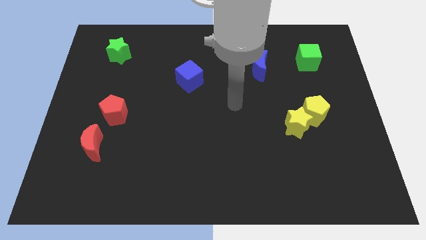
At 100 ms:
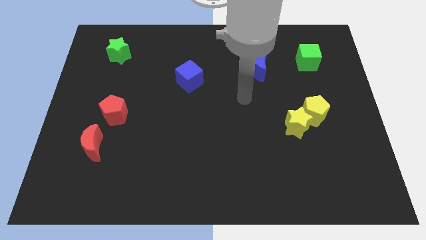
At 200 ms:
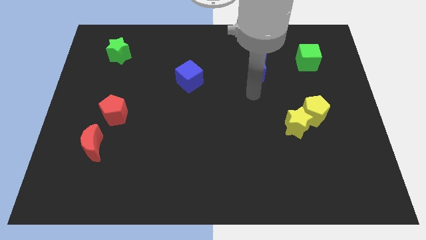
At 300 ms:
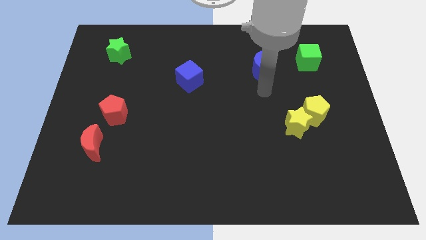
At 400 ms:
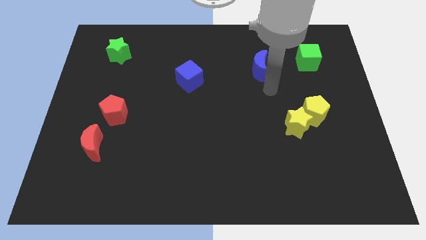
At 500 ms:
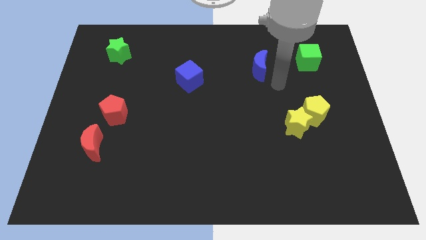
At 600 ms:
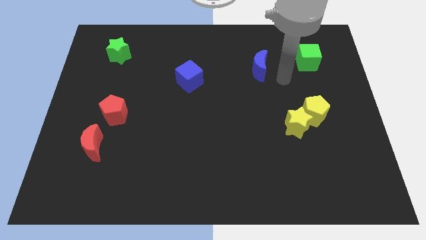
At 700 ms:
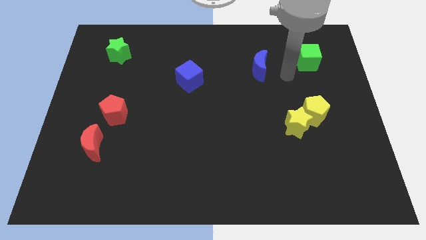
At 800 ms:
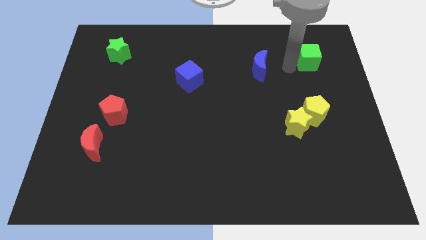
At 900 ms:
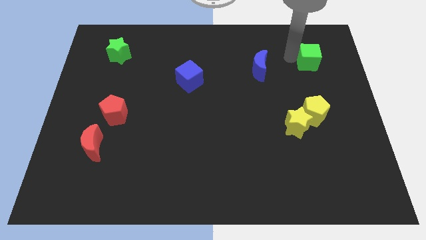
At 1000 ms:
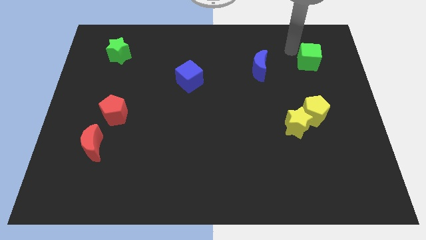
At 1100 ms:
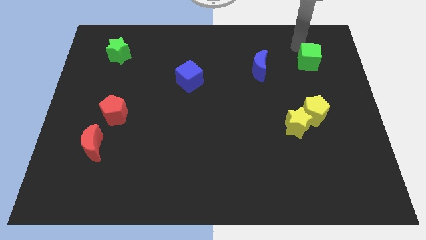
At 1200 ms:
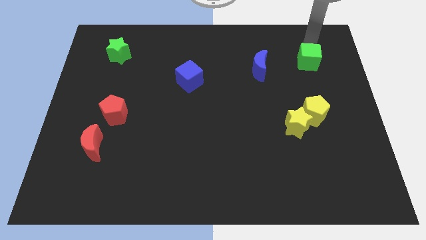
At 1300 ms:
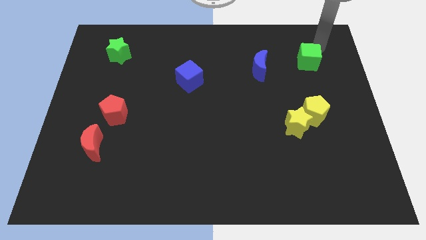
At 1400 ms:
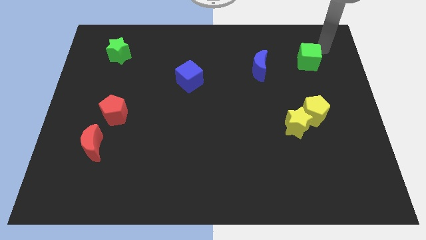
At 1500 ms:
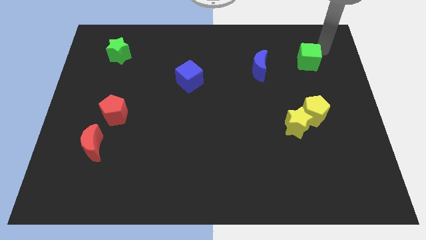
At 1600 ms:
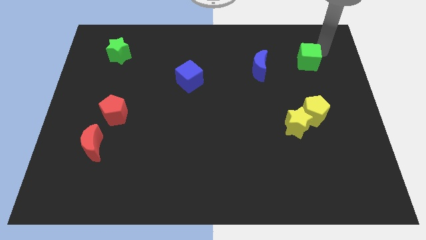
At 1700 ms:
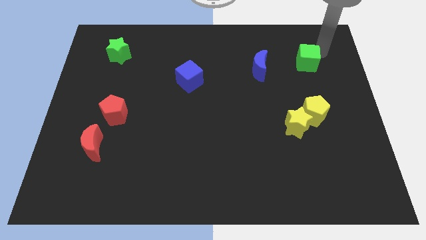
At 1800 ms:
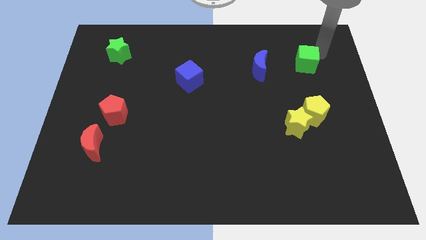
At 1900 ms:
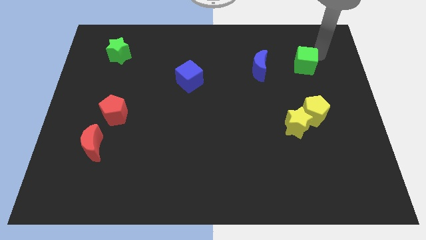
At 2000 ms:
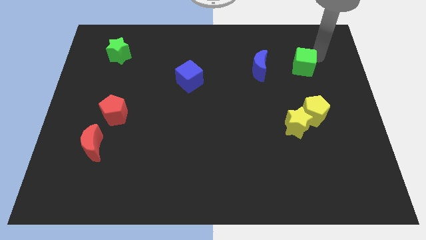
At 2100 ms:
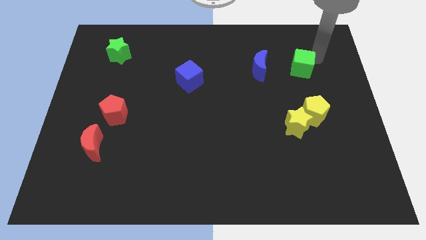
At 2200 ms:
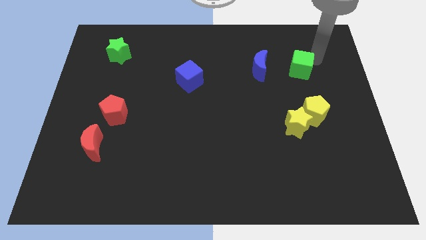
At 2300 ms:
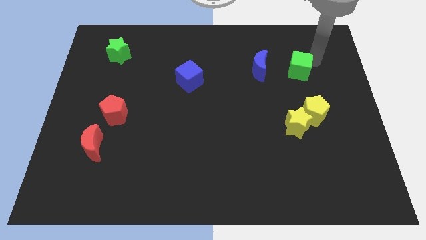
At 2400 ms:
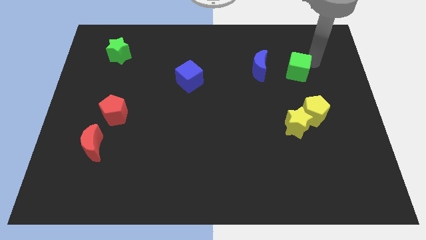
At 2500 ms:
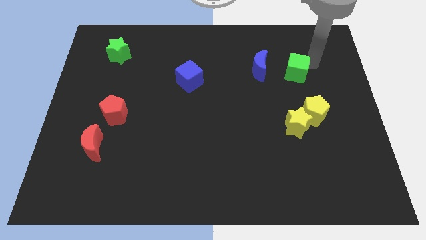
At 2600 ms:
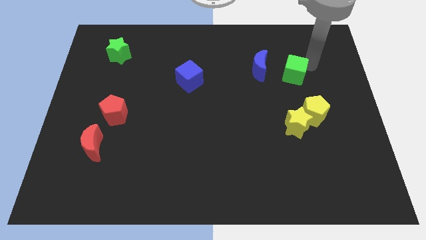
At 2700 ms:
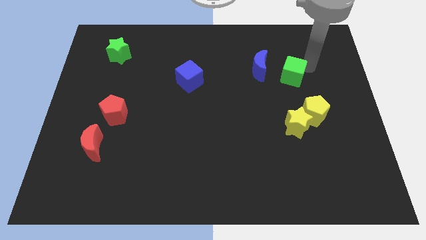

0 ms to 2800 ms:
push the green cube a little bit diagonally down and to the left

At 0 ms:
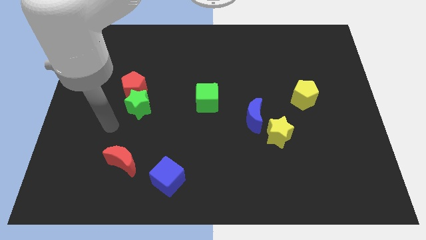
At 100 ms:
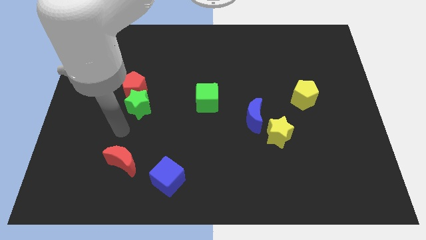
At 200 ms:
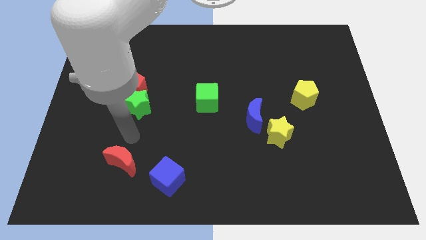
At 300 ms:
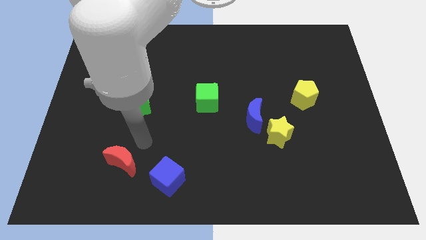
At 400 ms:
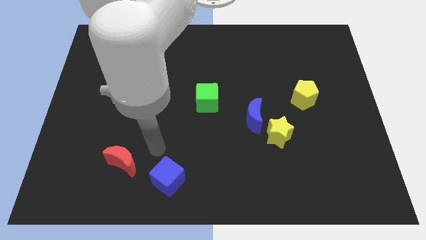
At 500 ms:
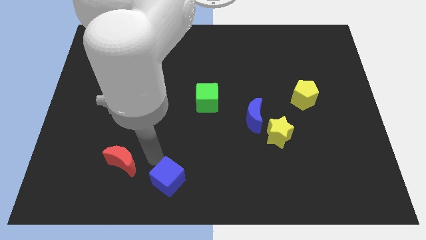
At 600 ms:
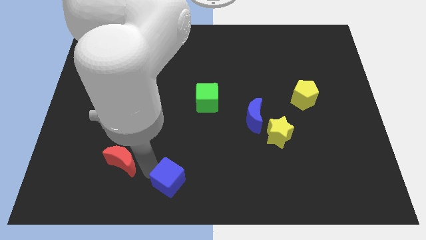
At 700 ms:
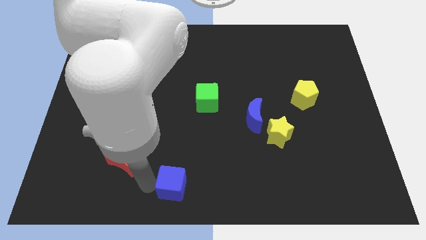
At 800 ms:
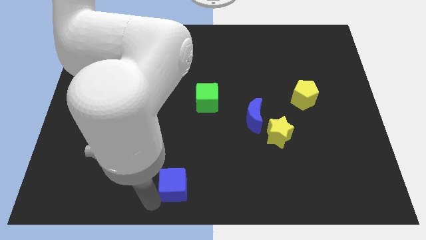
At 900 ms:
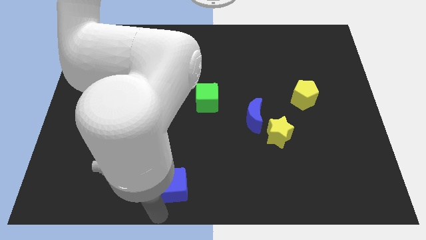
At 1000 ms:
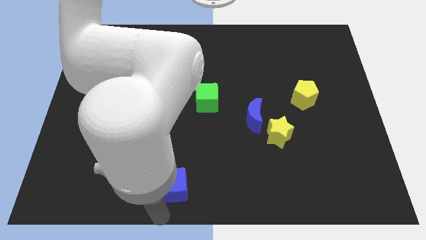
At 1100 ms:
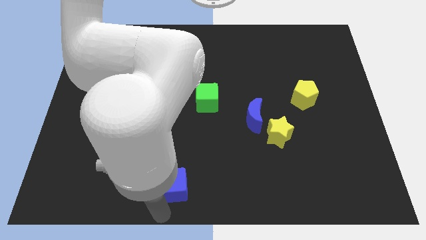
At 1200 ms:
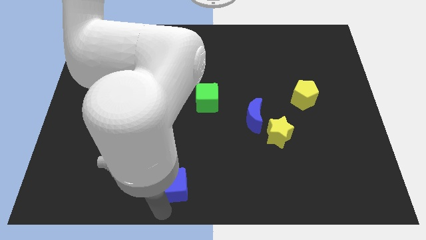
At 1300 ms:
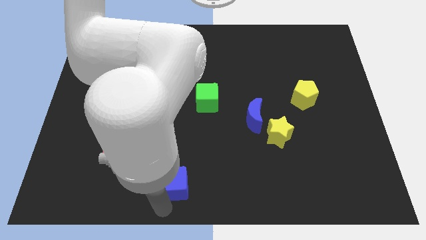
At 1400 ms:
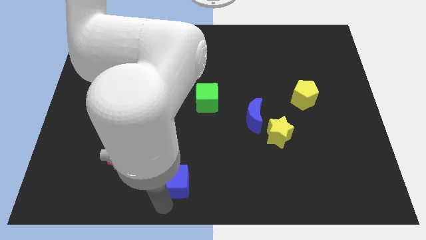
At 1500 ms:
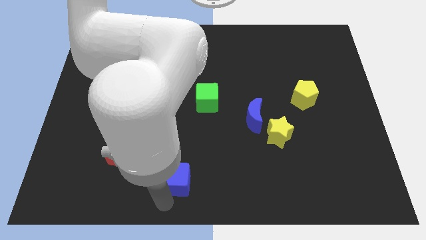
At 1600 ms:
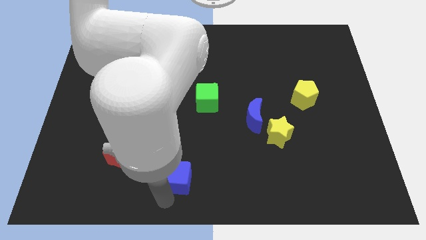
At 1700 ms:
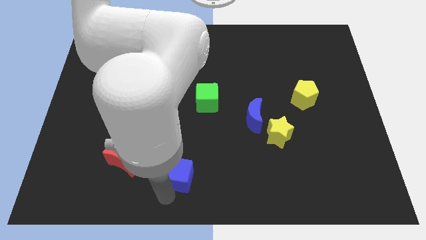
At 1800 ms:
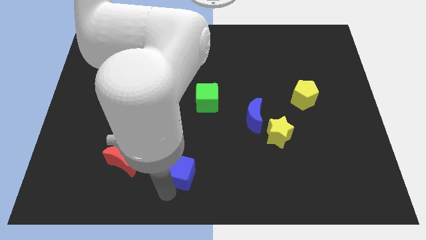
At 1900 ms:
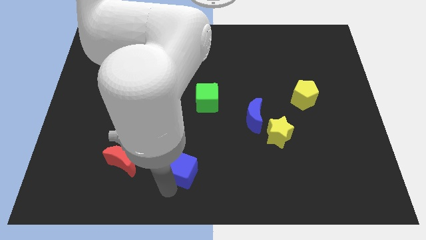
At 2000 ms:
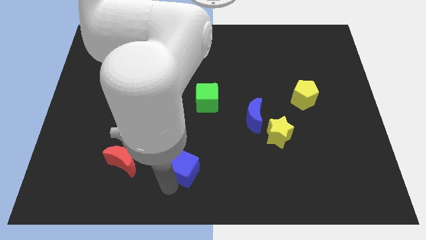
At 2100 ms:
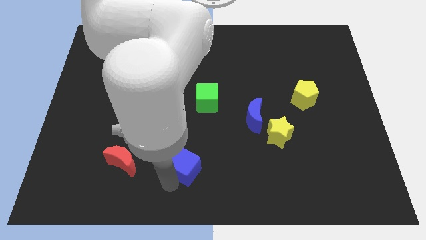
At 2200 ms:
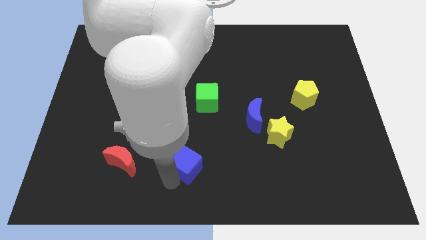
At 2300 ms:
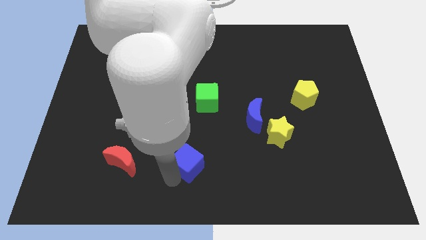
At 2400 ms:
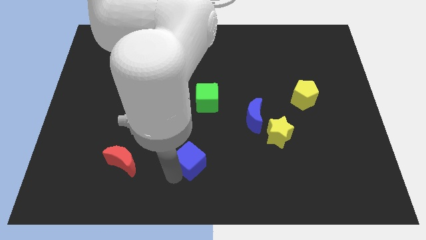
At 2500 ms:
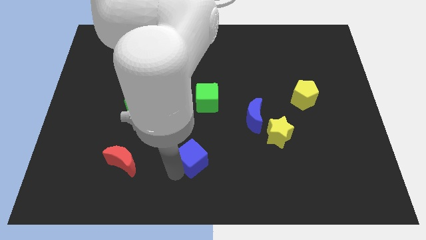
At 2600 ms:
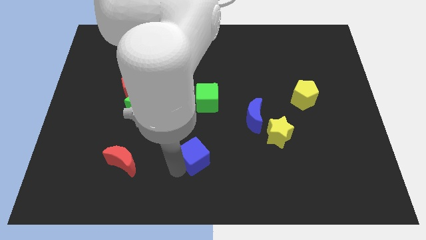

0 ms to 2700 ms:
slide the blue cube upwards and right somewhat

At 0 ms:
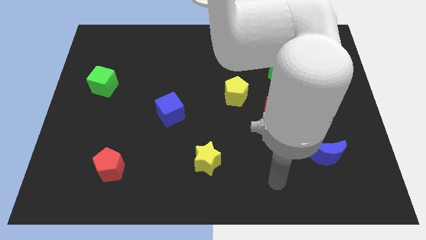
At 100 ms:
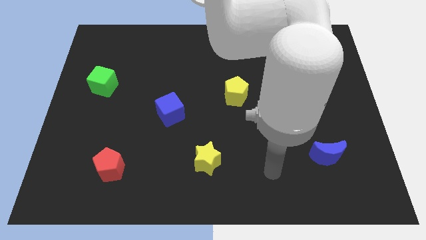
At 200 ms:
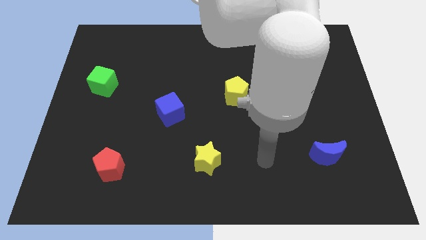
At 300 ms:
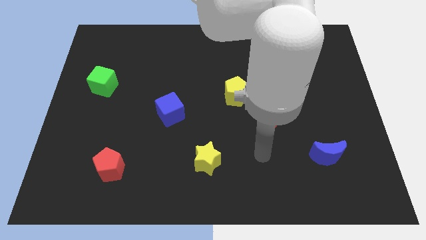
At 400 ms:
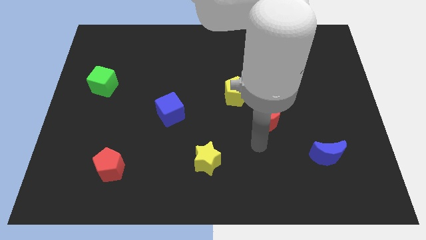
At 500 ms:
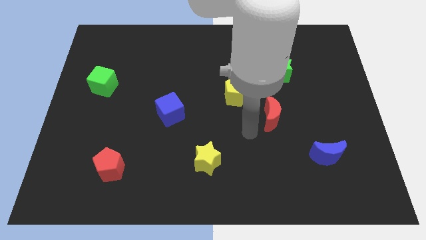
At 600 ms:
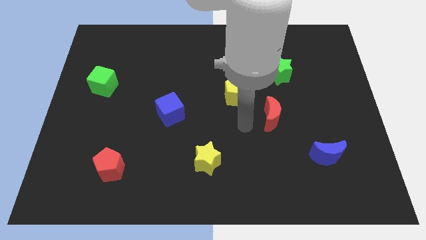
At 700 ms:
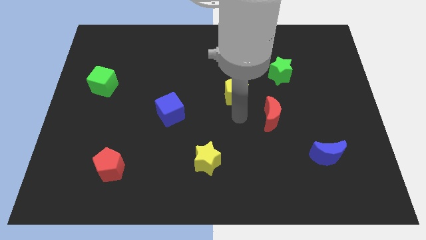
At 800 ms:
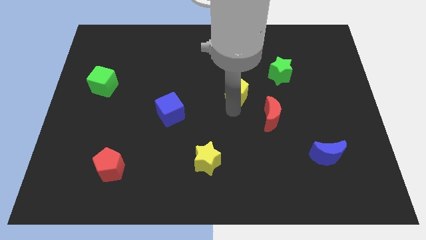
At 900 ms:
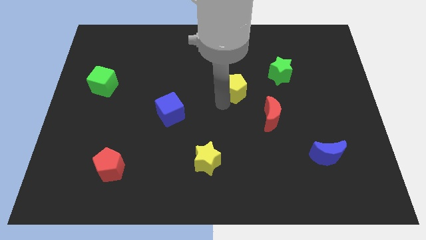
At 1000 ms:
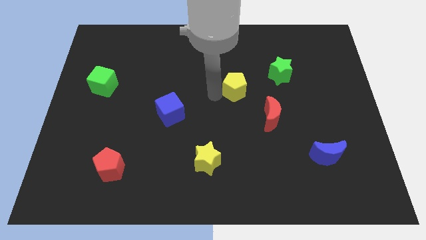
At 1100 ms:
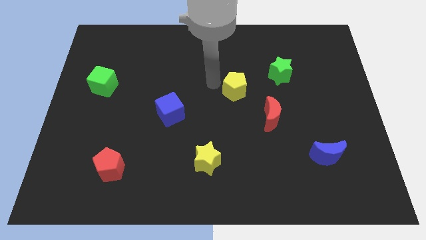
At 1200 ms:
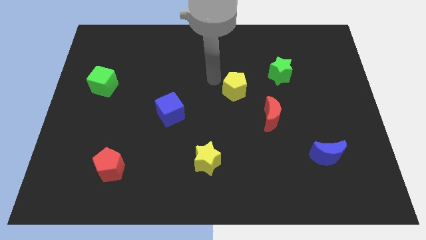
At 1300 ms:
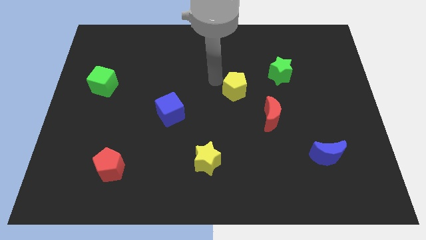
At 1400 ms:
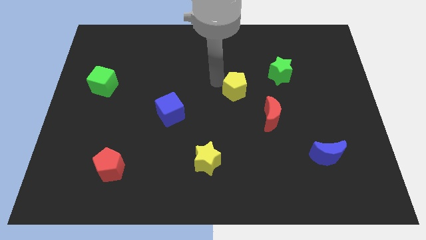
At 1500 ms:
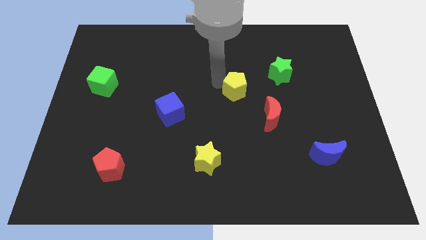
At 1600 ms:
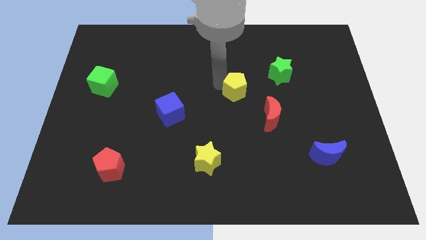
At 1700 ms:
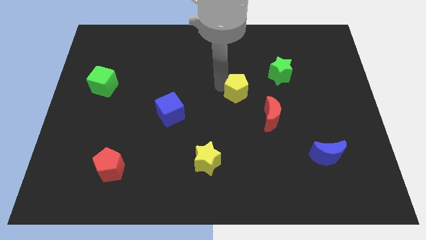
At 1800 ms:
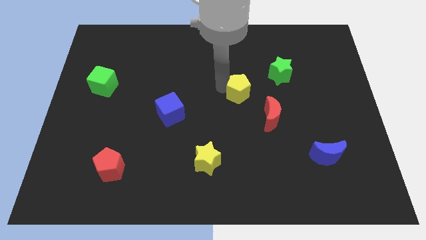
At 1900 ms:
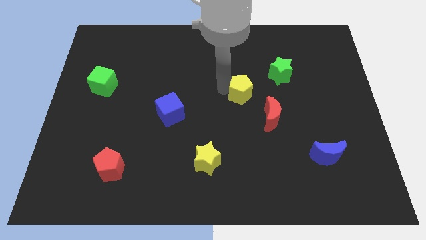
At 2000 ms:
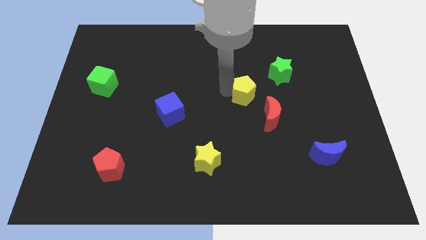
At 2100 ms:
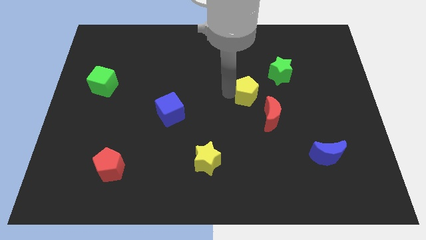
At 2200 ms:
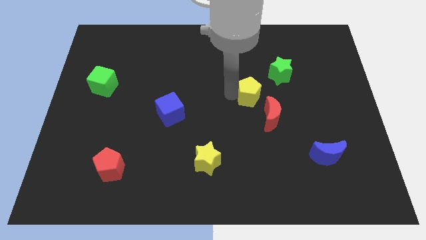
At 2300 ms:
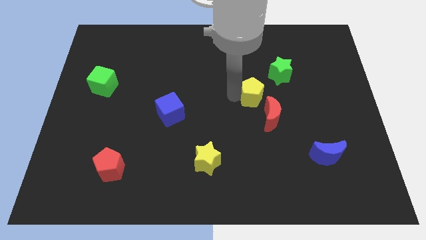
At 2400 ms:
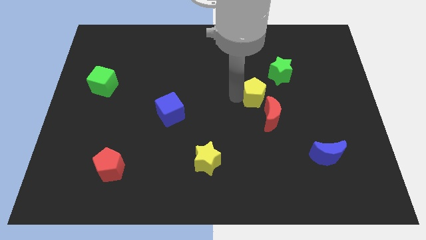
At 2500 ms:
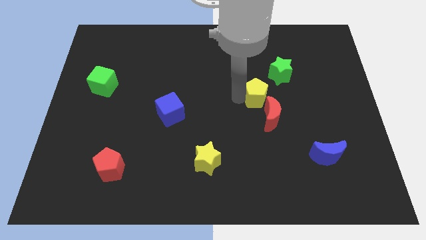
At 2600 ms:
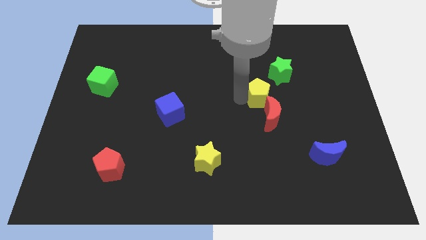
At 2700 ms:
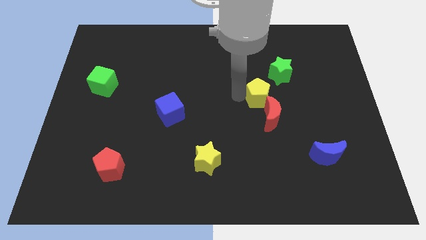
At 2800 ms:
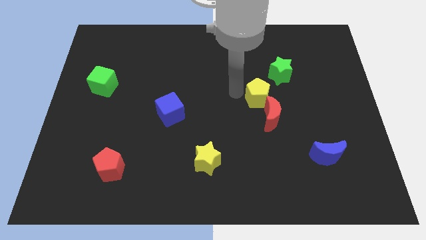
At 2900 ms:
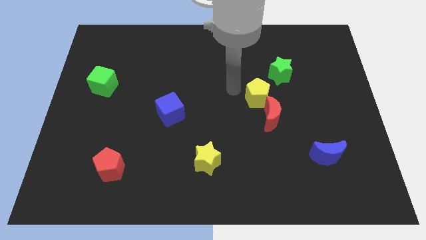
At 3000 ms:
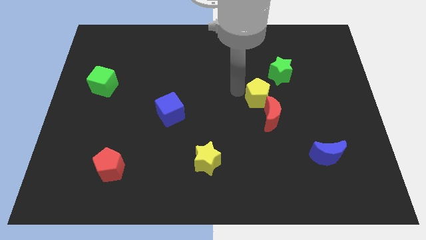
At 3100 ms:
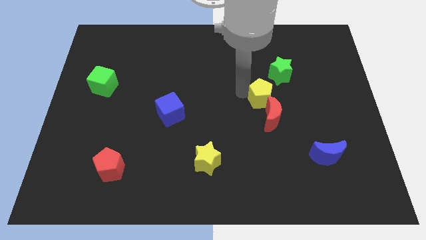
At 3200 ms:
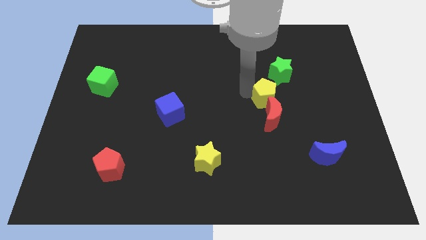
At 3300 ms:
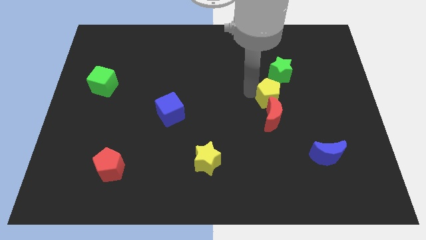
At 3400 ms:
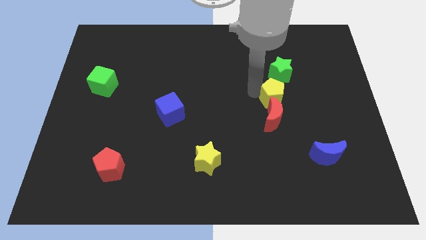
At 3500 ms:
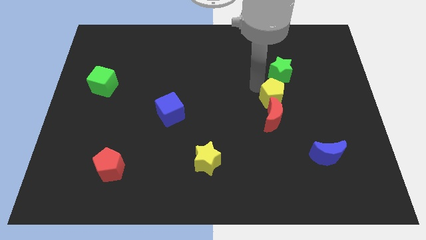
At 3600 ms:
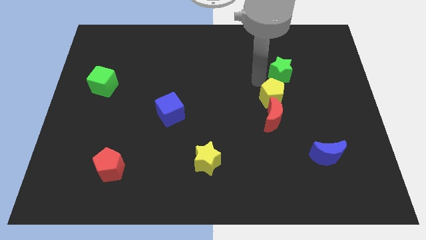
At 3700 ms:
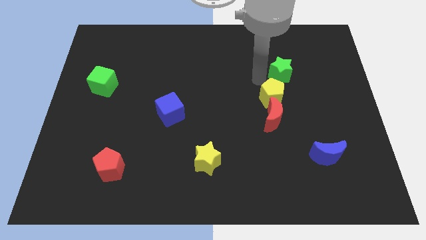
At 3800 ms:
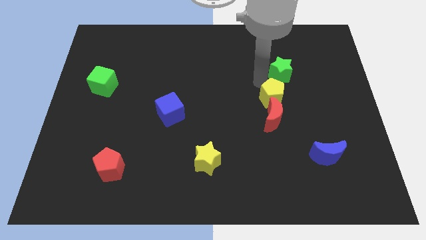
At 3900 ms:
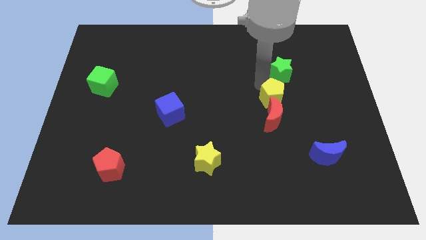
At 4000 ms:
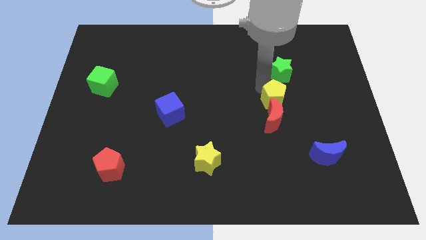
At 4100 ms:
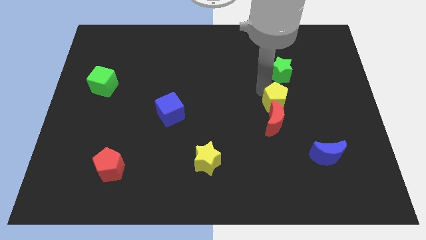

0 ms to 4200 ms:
slide the yellow pentagon downwards and to the right somewhat
